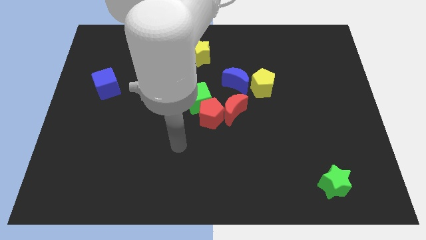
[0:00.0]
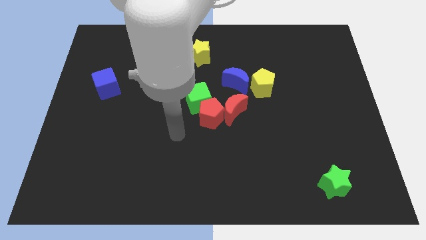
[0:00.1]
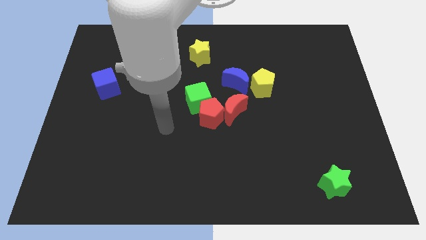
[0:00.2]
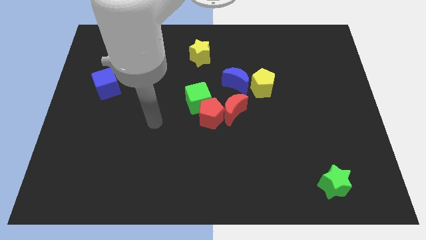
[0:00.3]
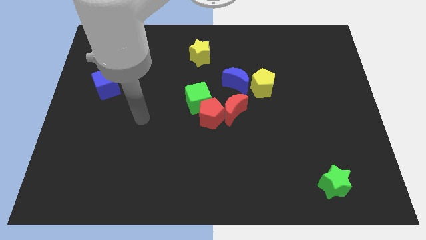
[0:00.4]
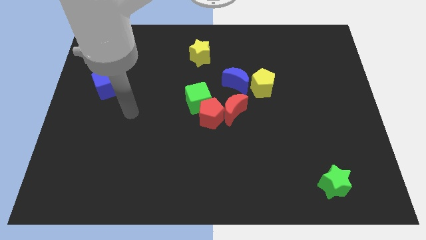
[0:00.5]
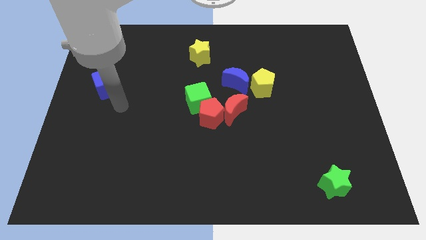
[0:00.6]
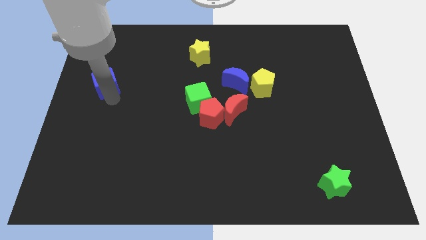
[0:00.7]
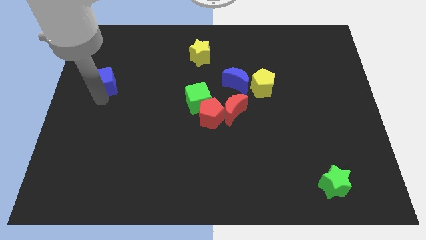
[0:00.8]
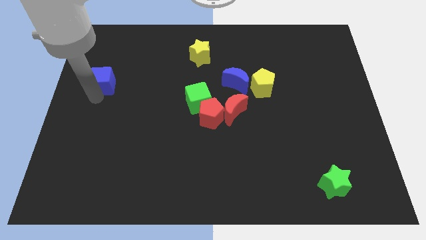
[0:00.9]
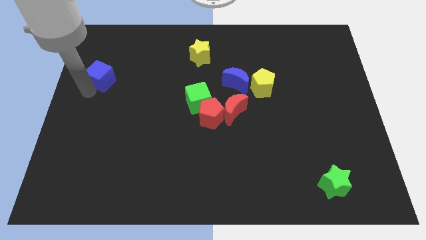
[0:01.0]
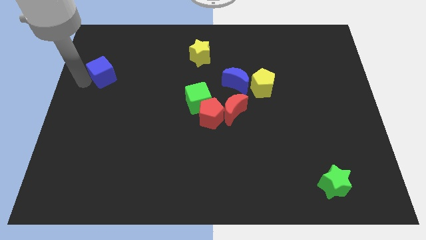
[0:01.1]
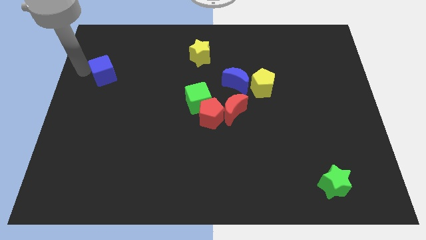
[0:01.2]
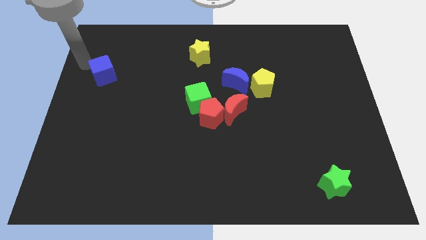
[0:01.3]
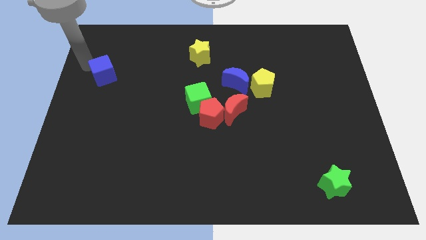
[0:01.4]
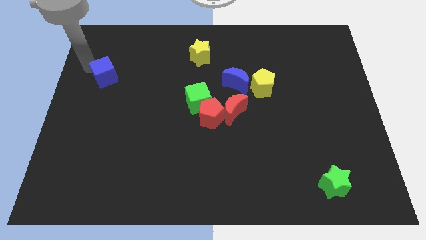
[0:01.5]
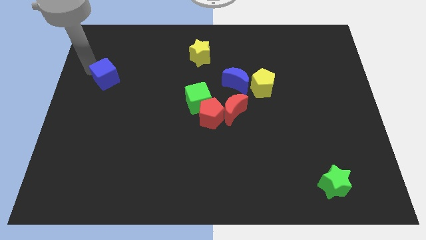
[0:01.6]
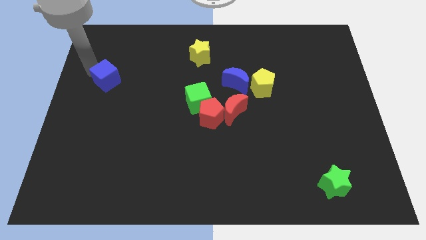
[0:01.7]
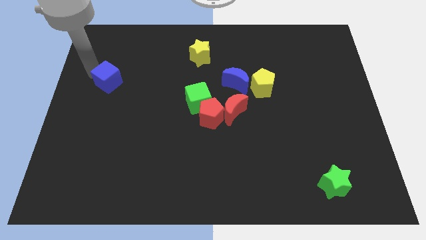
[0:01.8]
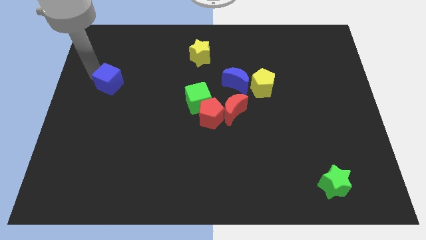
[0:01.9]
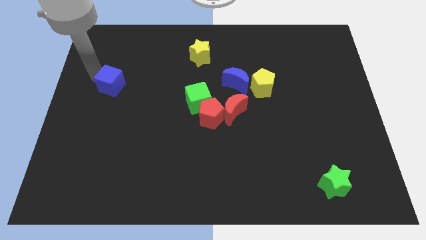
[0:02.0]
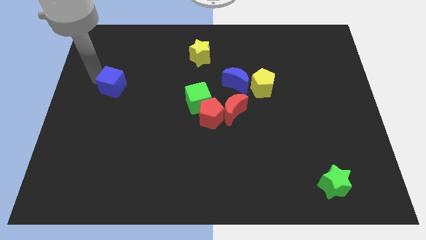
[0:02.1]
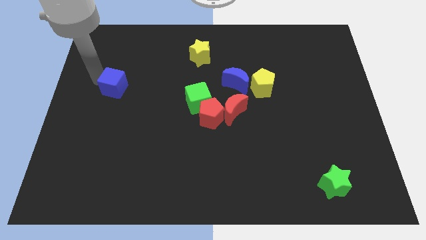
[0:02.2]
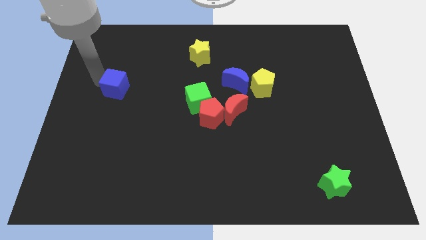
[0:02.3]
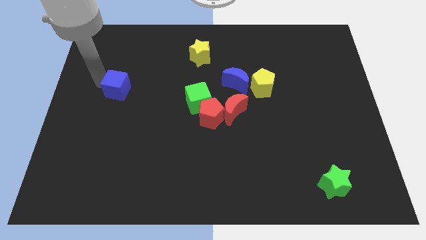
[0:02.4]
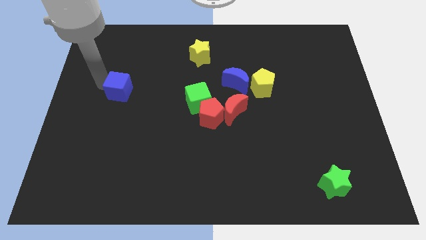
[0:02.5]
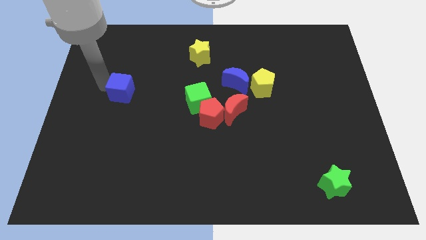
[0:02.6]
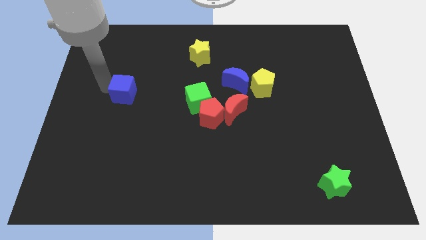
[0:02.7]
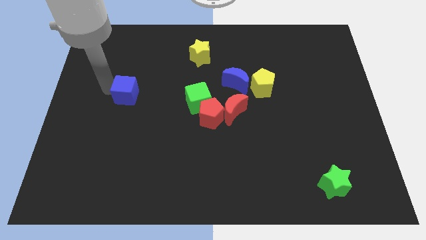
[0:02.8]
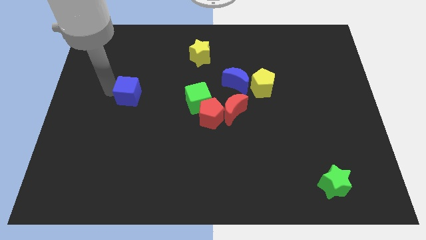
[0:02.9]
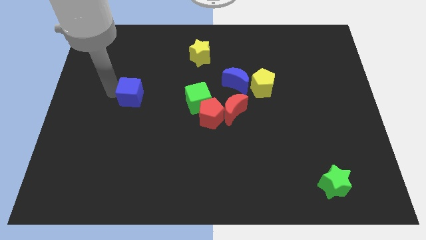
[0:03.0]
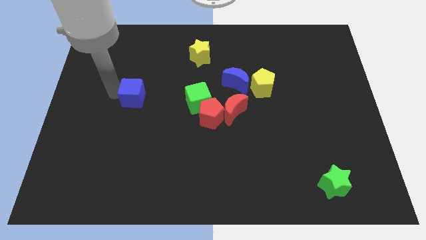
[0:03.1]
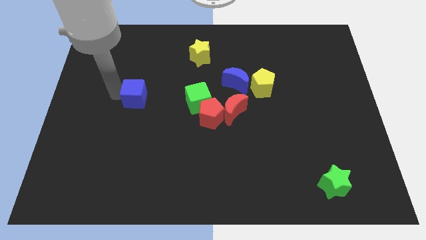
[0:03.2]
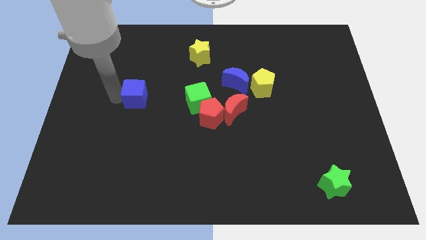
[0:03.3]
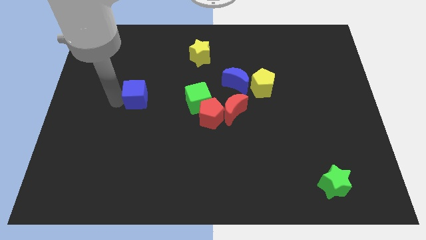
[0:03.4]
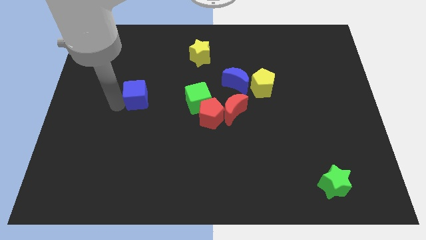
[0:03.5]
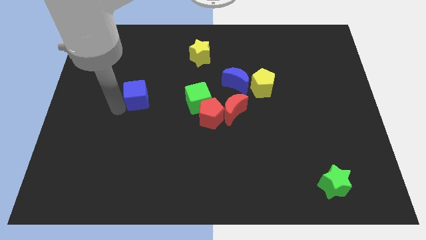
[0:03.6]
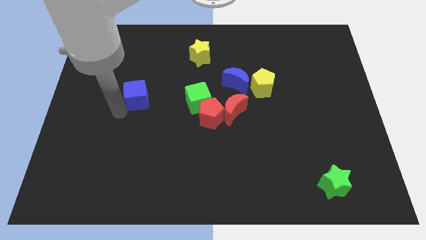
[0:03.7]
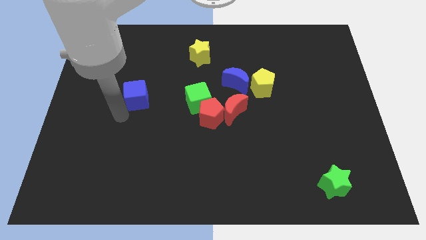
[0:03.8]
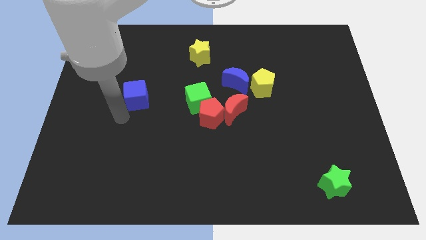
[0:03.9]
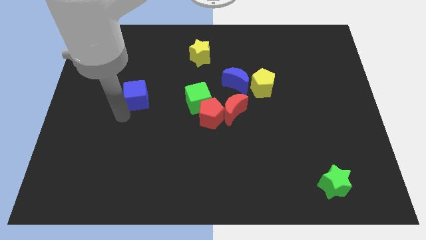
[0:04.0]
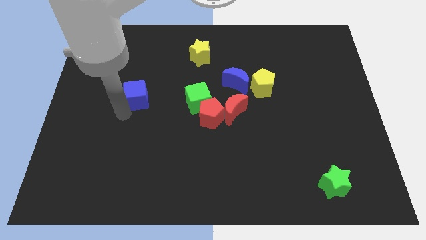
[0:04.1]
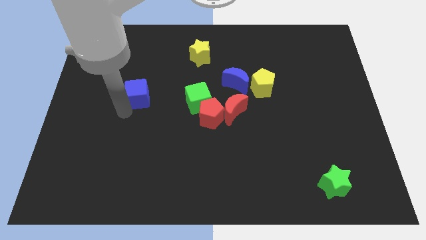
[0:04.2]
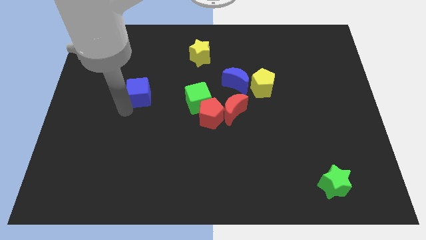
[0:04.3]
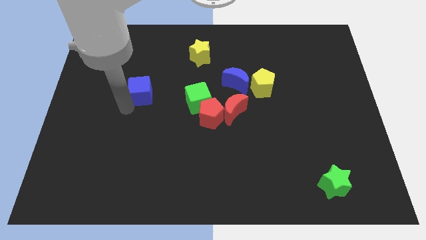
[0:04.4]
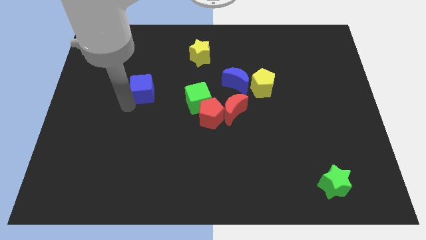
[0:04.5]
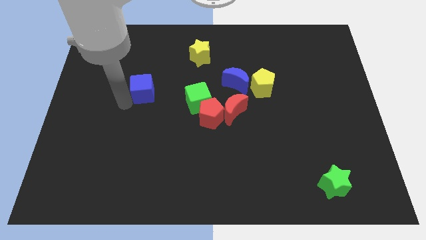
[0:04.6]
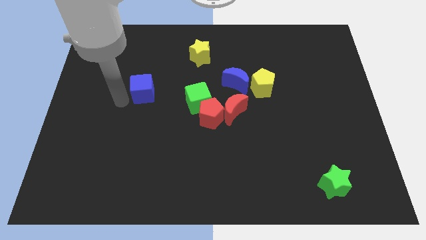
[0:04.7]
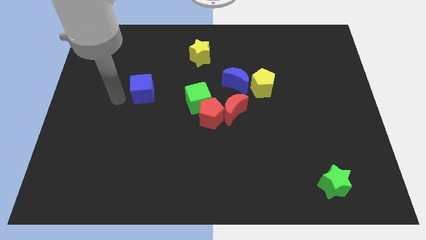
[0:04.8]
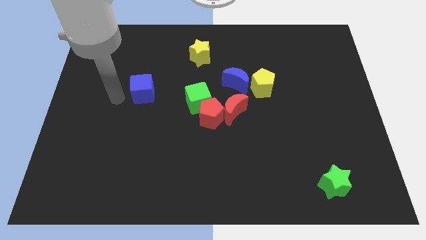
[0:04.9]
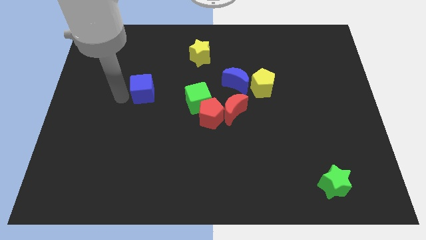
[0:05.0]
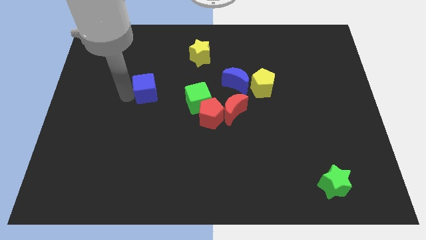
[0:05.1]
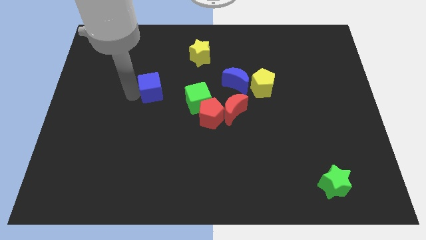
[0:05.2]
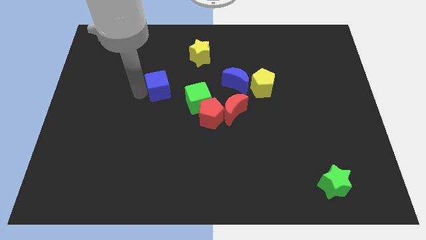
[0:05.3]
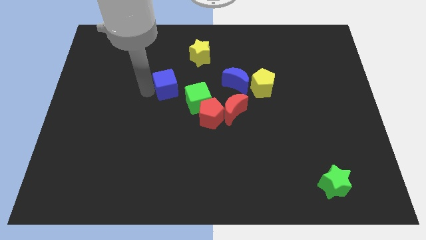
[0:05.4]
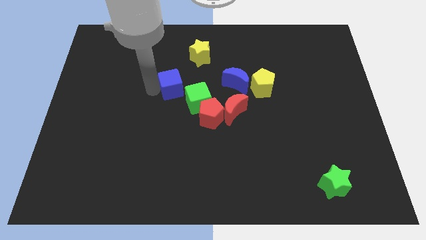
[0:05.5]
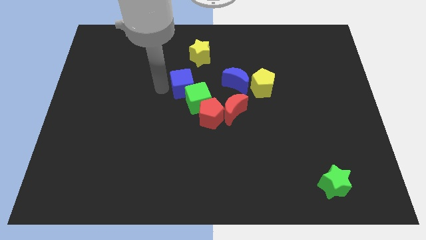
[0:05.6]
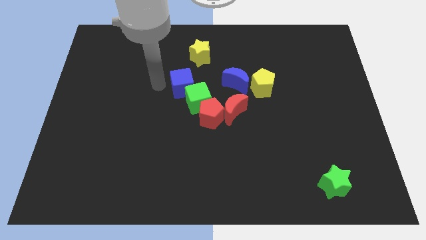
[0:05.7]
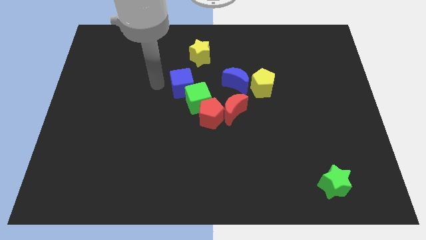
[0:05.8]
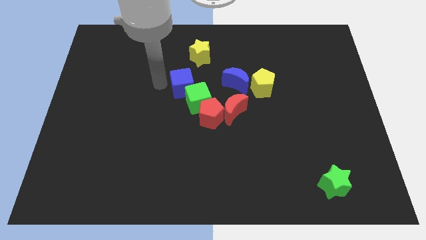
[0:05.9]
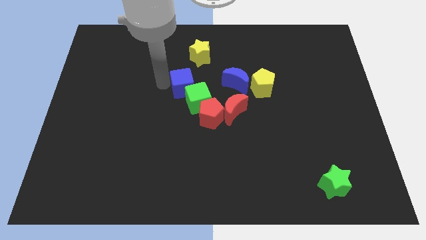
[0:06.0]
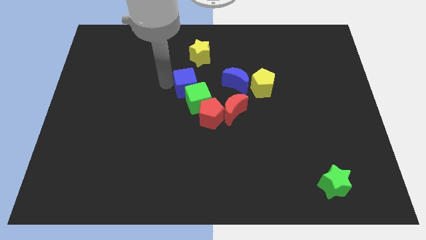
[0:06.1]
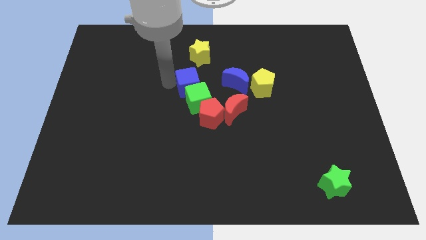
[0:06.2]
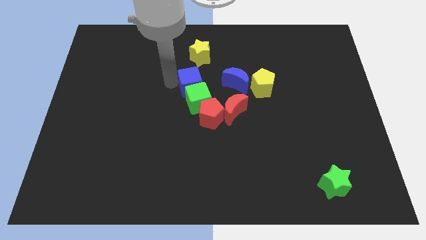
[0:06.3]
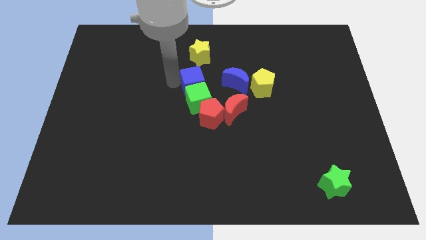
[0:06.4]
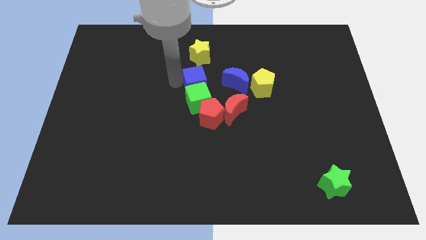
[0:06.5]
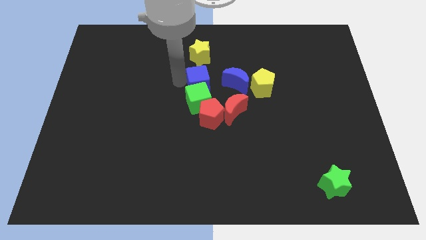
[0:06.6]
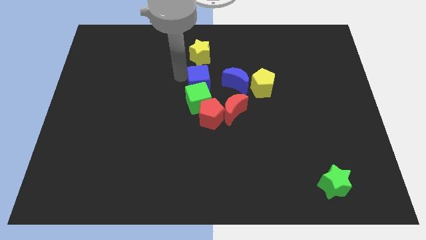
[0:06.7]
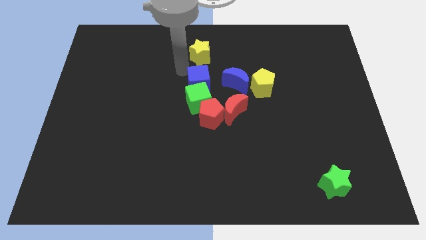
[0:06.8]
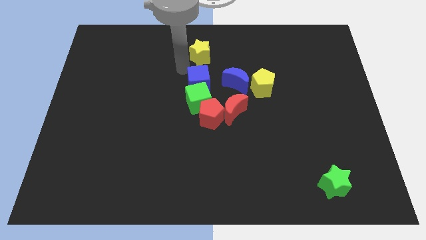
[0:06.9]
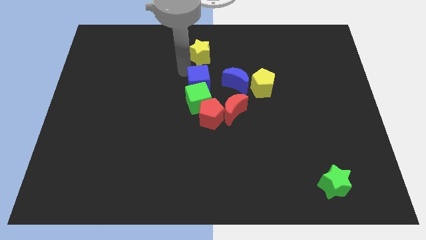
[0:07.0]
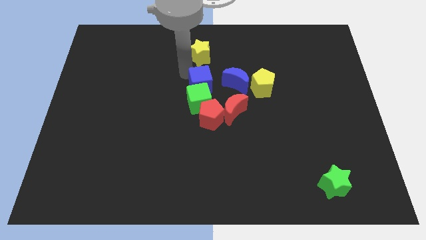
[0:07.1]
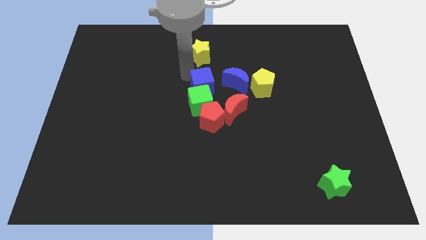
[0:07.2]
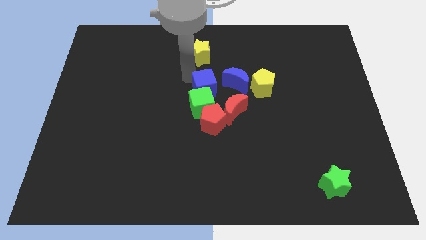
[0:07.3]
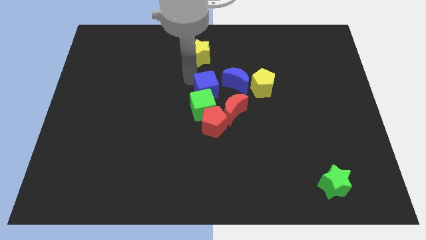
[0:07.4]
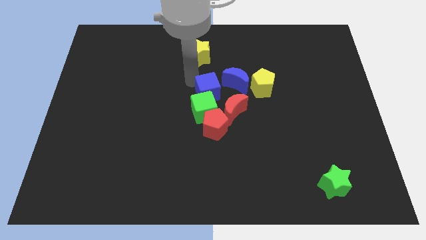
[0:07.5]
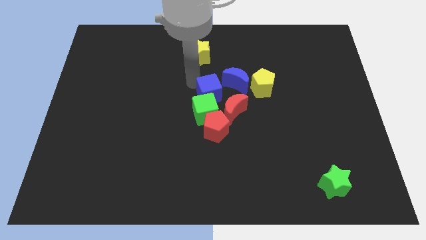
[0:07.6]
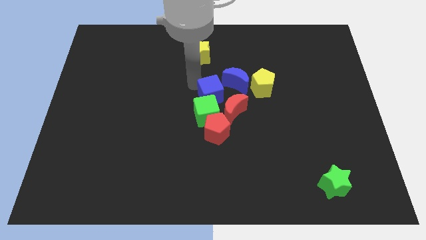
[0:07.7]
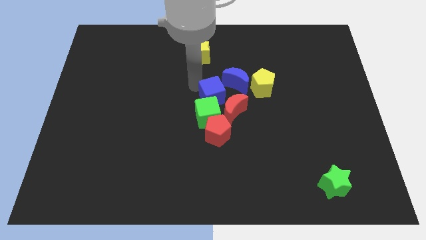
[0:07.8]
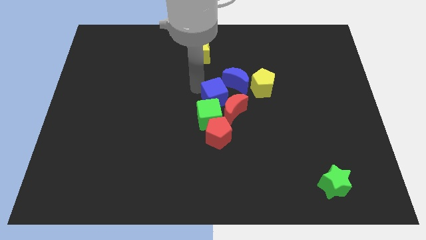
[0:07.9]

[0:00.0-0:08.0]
put the blue cube close to the red moon
